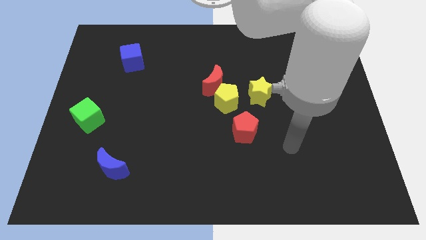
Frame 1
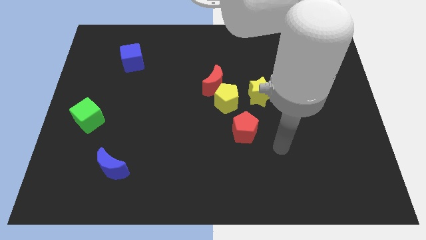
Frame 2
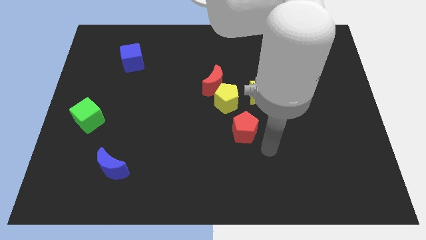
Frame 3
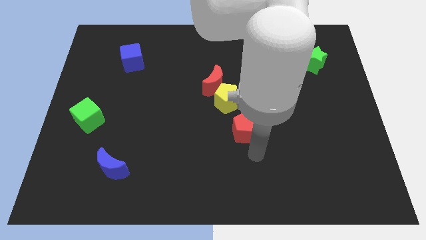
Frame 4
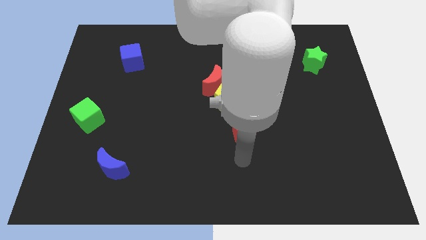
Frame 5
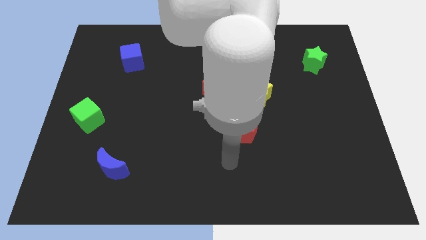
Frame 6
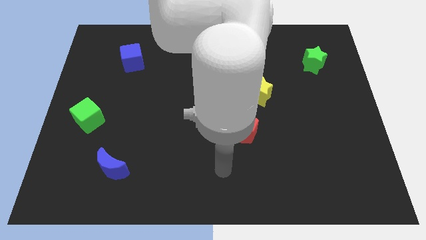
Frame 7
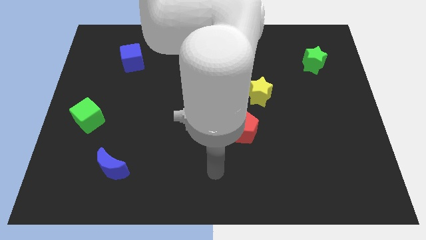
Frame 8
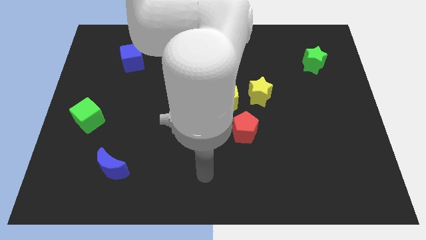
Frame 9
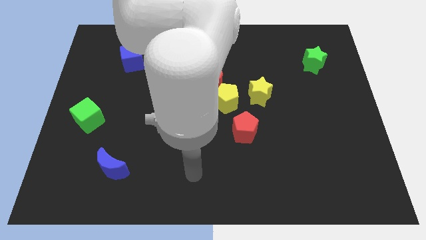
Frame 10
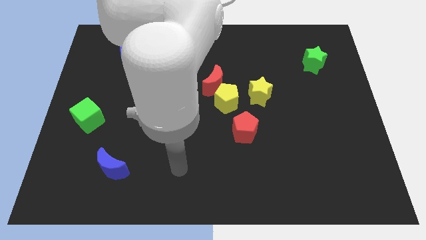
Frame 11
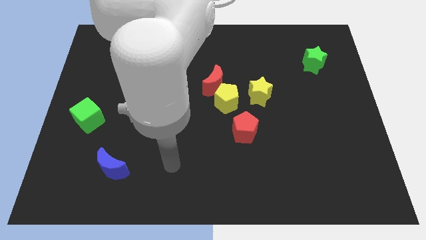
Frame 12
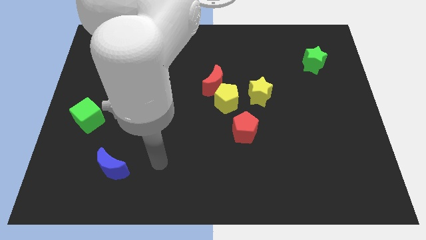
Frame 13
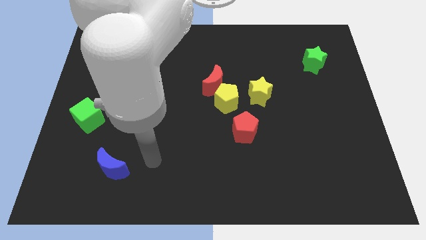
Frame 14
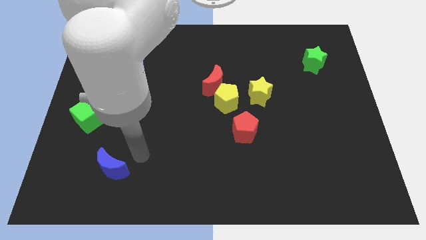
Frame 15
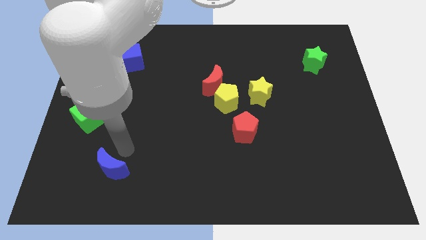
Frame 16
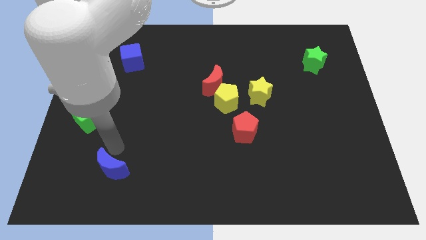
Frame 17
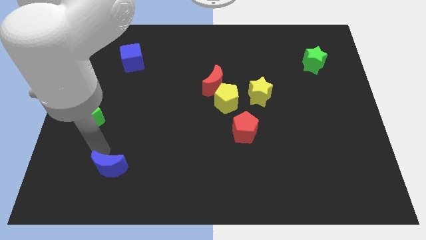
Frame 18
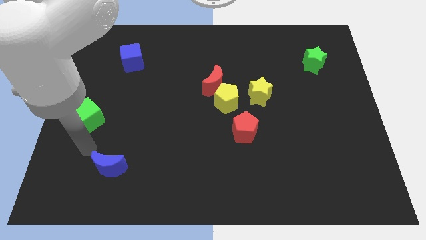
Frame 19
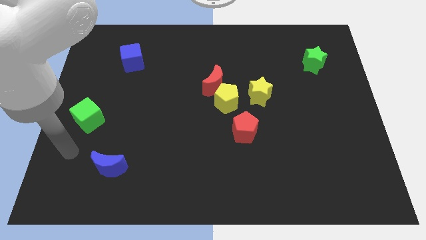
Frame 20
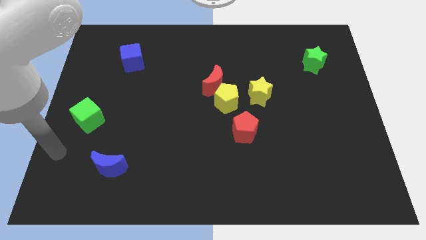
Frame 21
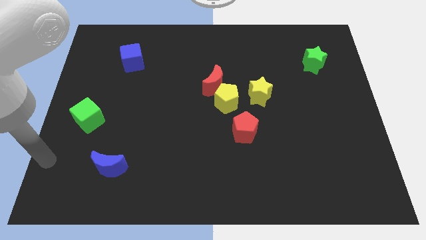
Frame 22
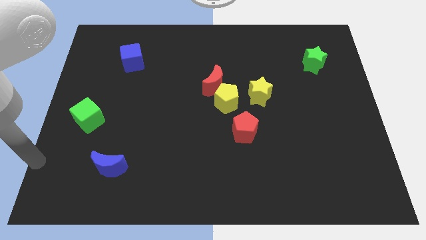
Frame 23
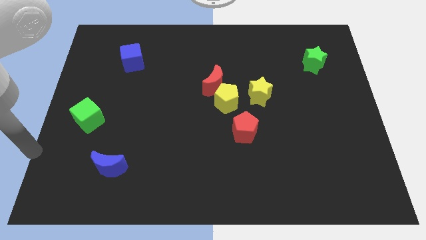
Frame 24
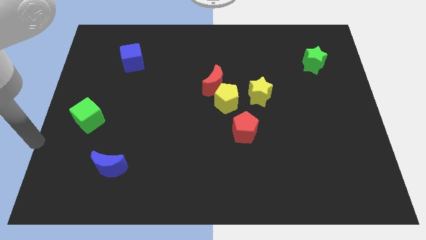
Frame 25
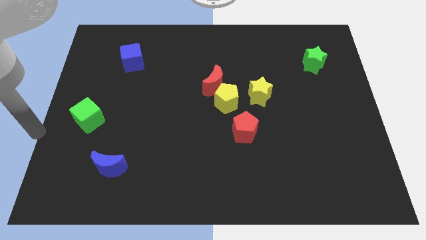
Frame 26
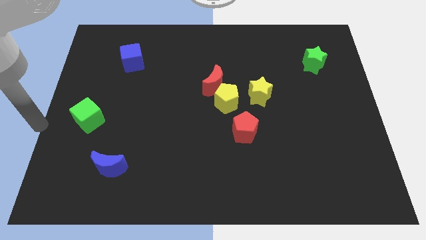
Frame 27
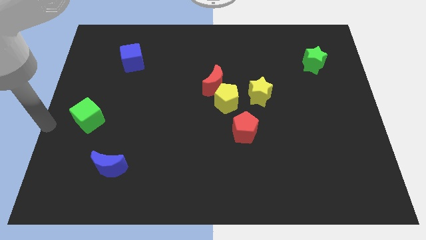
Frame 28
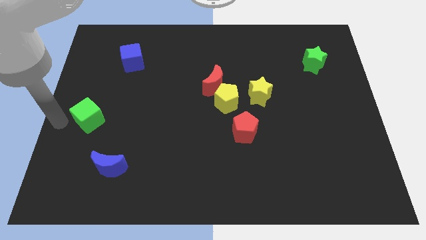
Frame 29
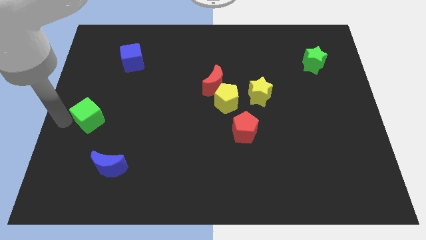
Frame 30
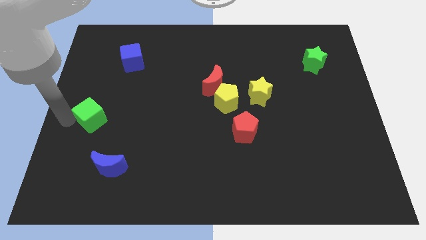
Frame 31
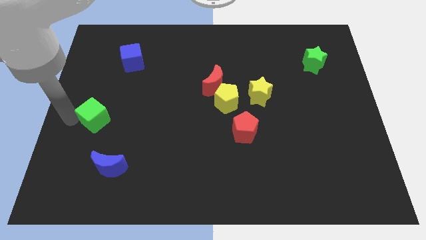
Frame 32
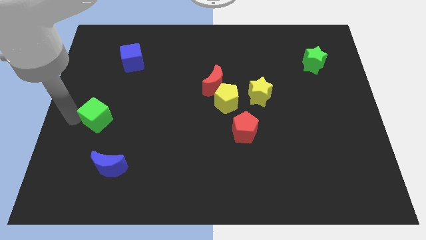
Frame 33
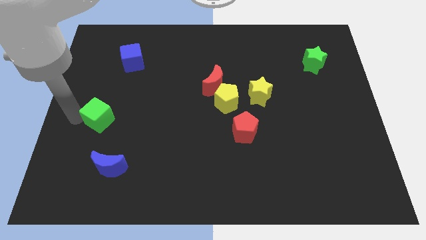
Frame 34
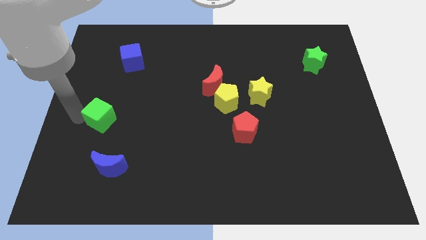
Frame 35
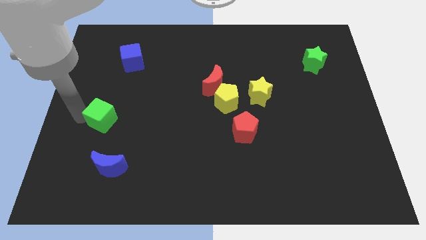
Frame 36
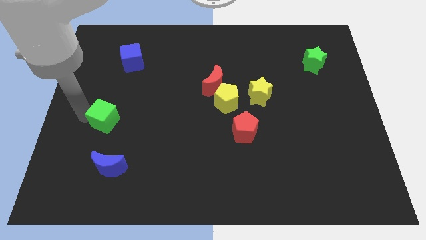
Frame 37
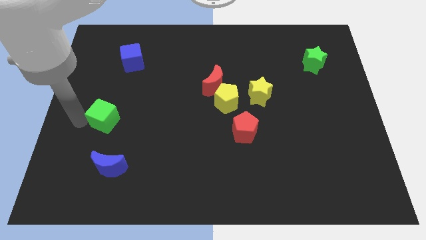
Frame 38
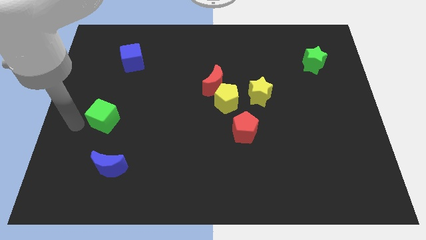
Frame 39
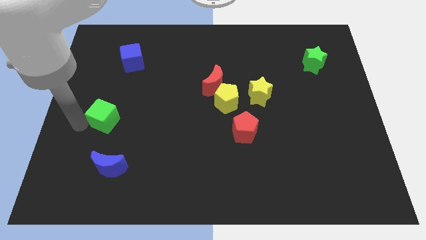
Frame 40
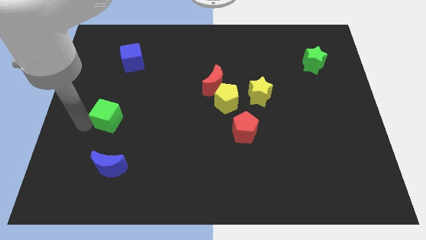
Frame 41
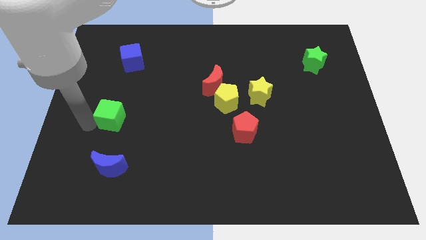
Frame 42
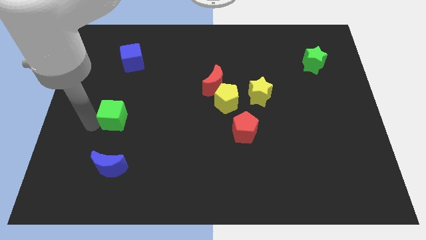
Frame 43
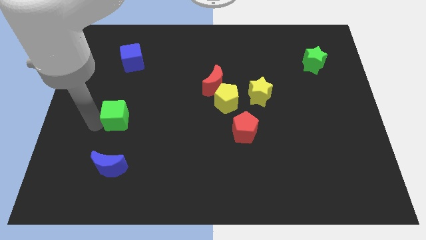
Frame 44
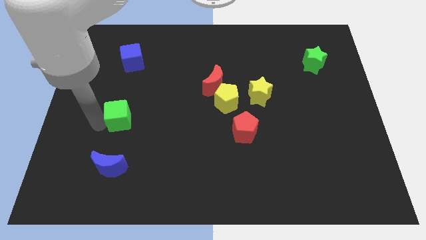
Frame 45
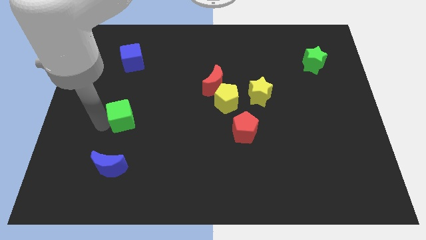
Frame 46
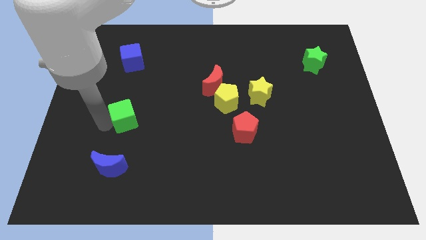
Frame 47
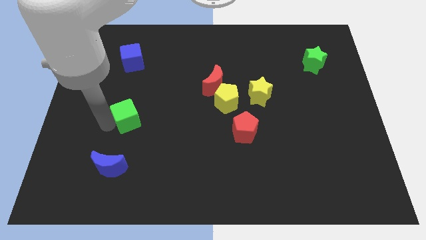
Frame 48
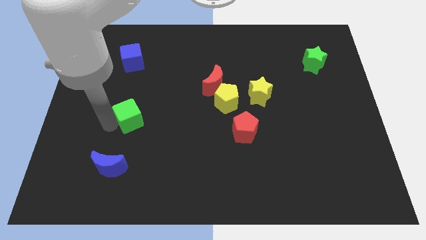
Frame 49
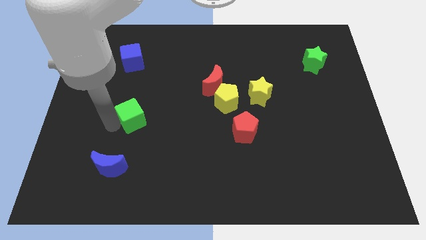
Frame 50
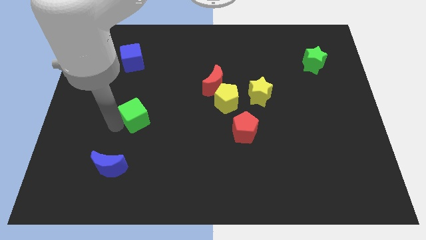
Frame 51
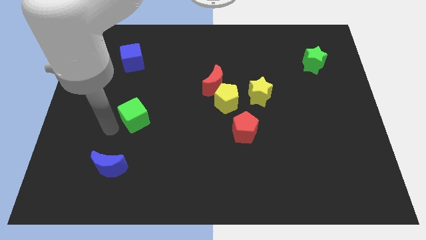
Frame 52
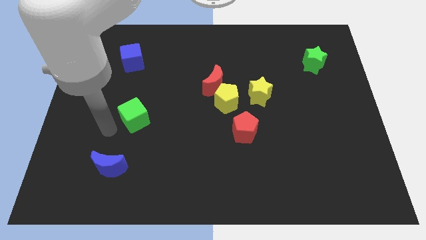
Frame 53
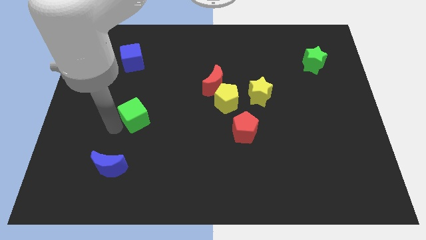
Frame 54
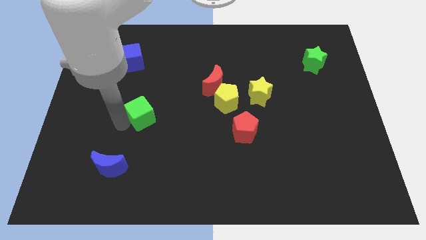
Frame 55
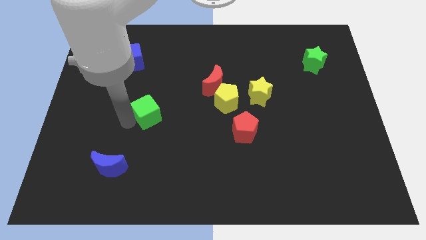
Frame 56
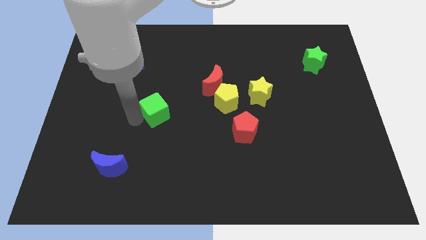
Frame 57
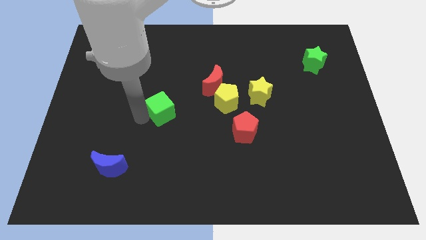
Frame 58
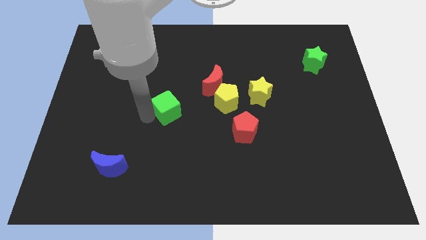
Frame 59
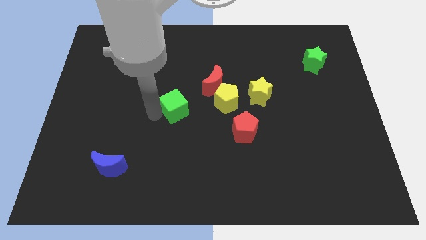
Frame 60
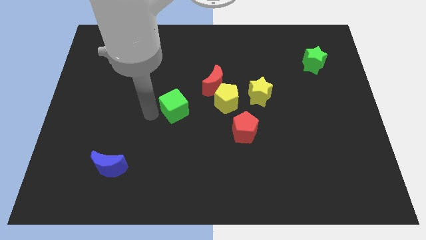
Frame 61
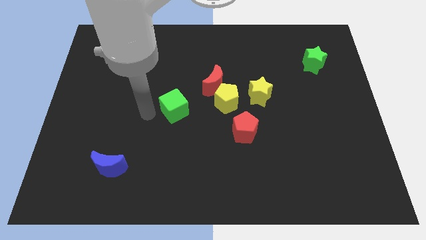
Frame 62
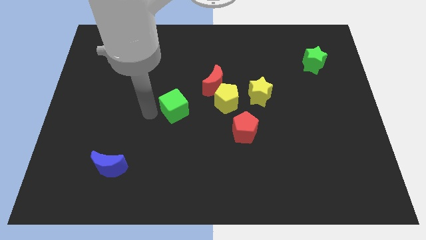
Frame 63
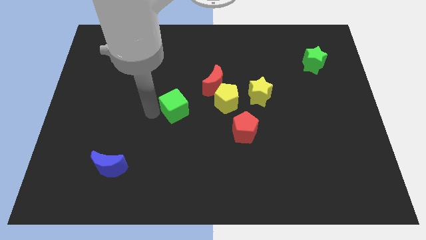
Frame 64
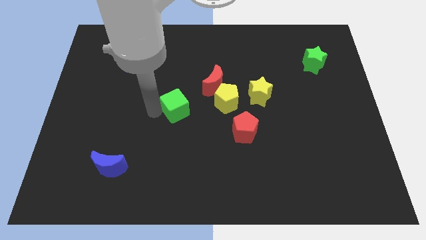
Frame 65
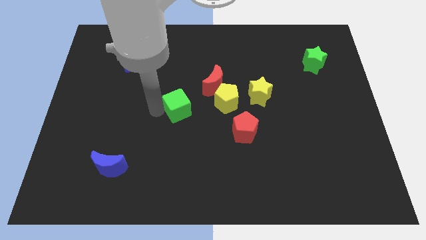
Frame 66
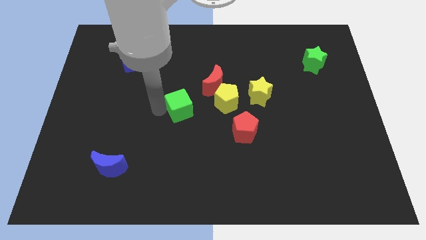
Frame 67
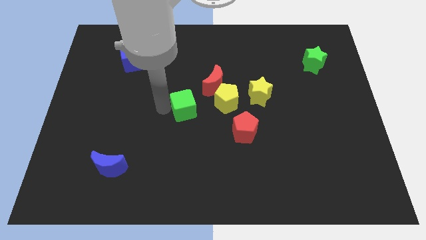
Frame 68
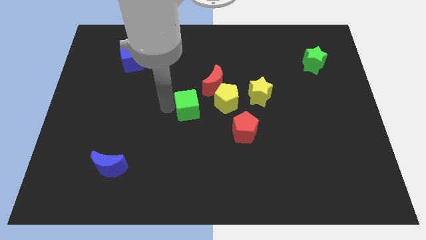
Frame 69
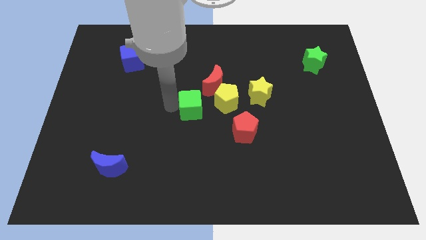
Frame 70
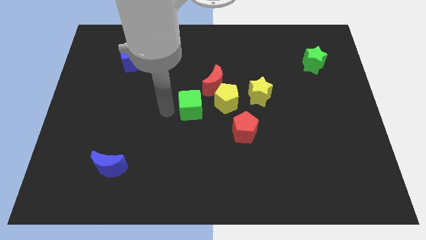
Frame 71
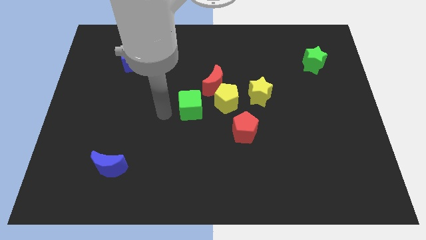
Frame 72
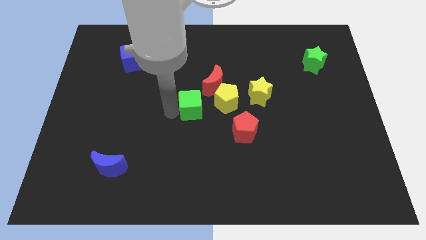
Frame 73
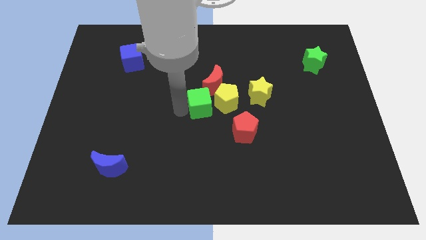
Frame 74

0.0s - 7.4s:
push the green cube to the yellow pentagon
